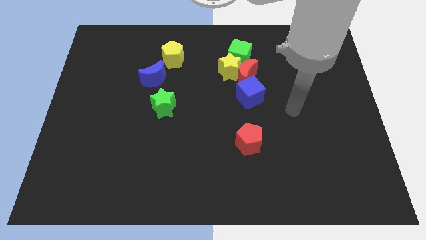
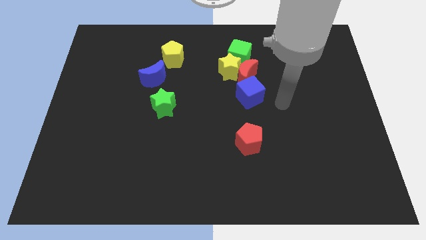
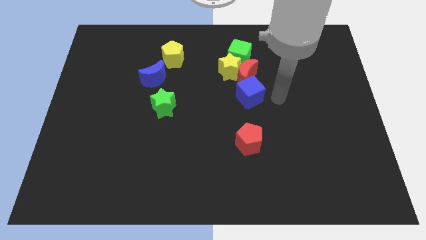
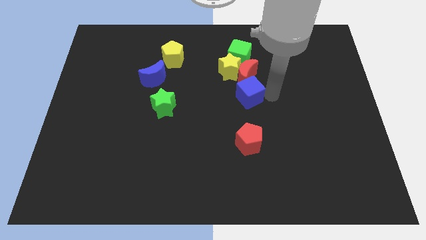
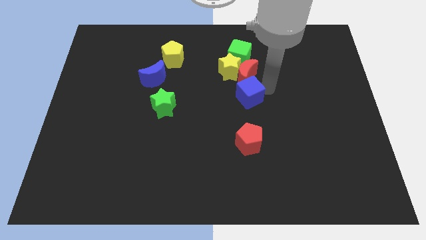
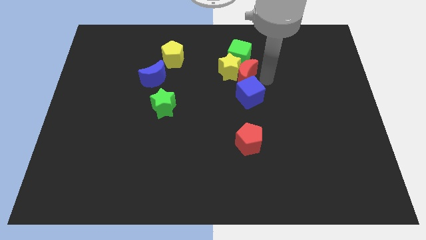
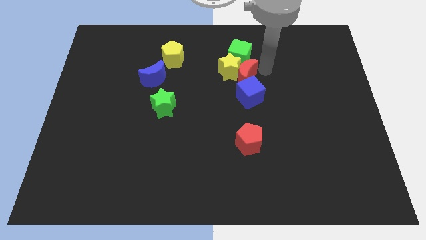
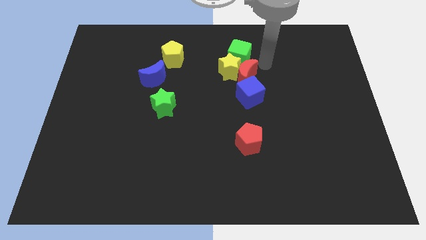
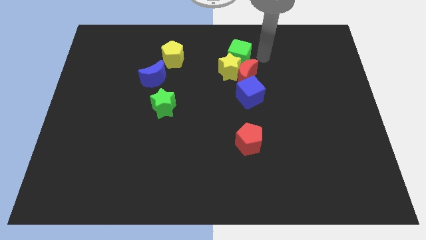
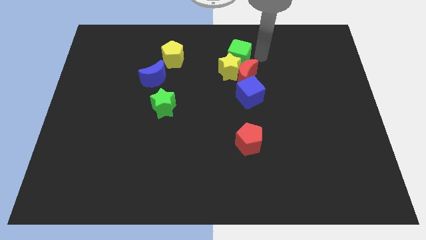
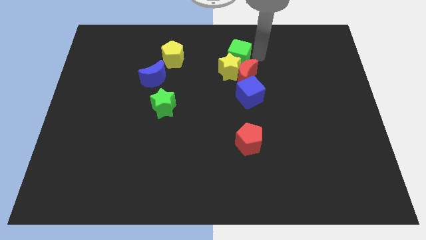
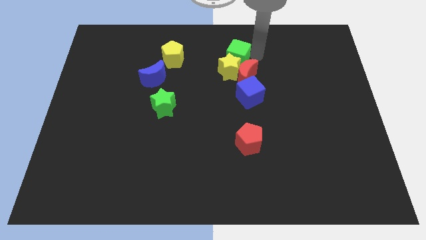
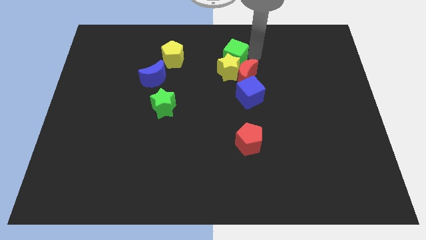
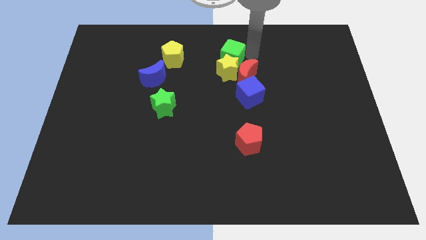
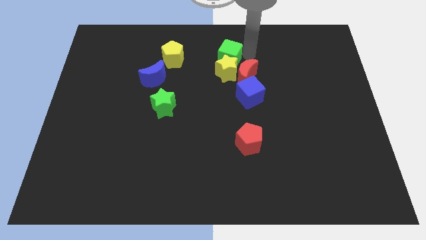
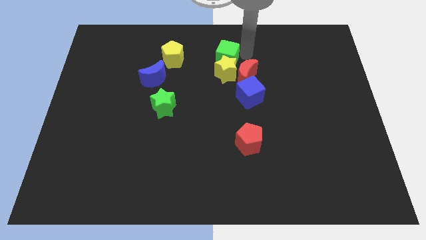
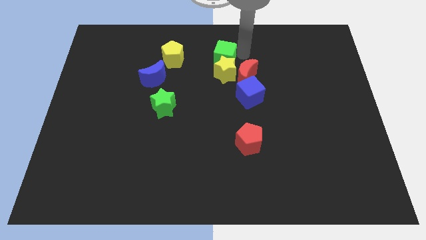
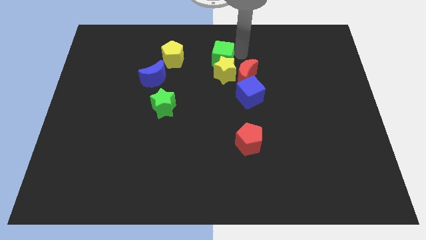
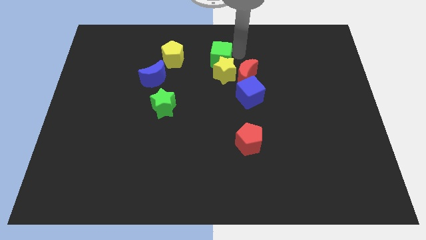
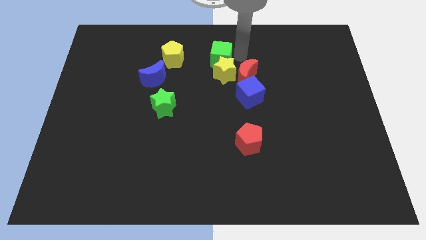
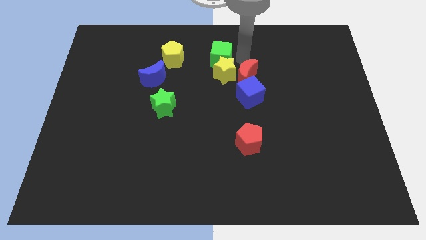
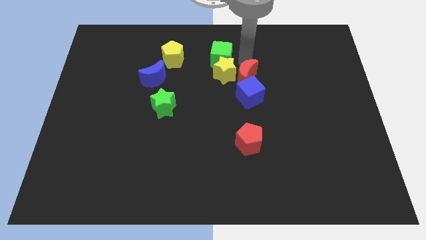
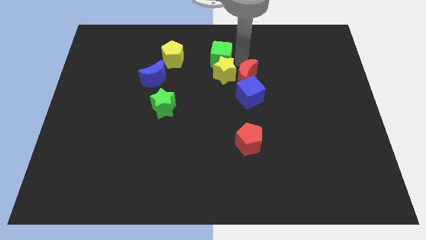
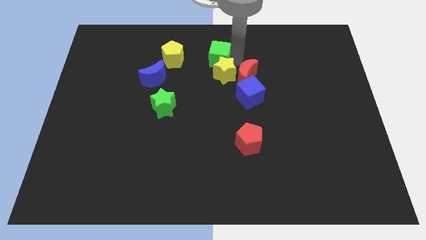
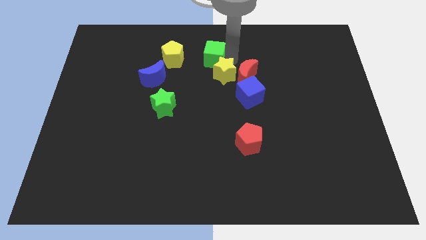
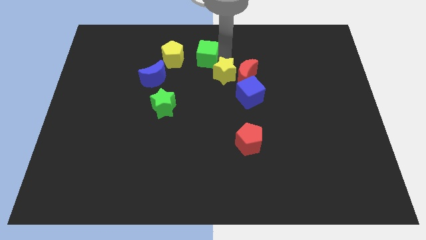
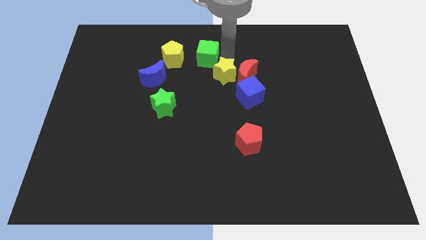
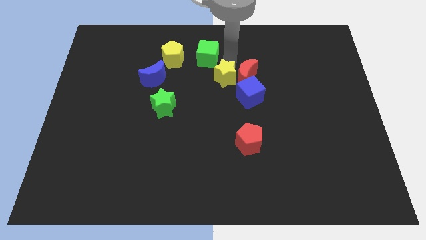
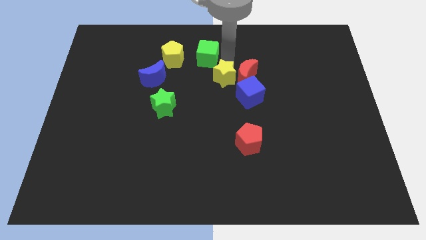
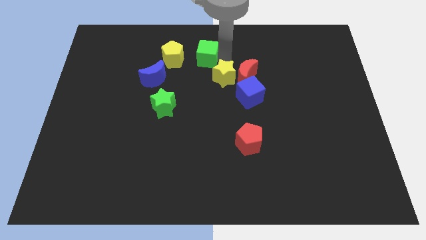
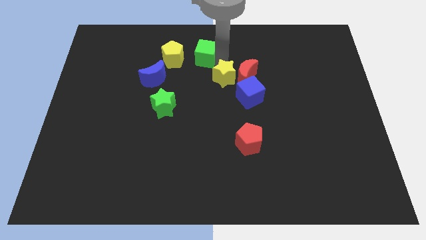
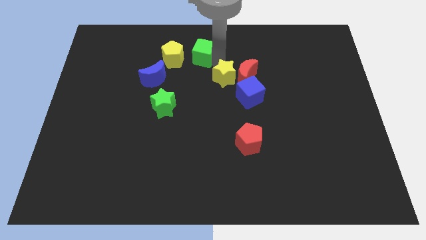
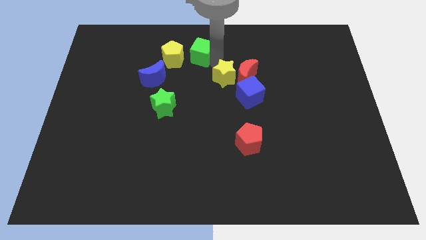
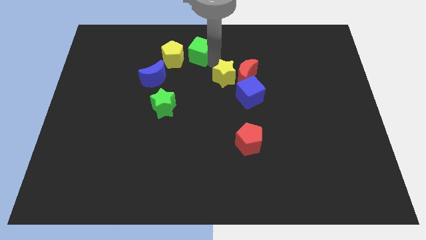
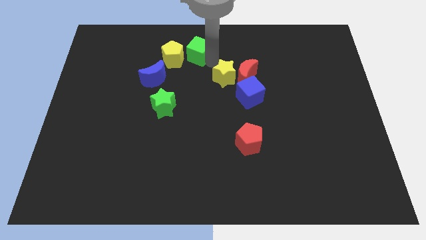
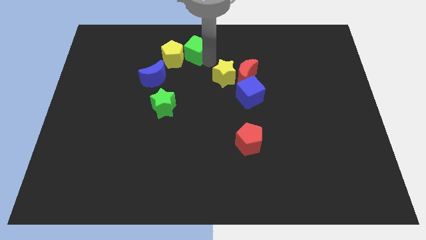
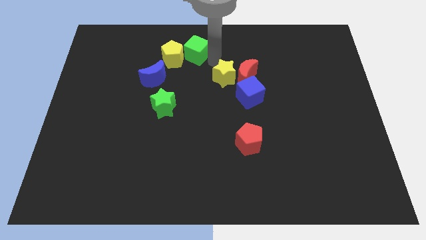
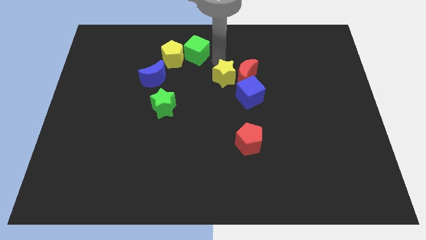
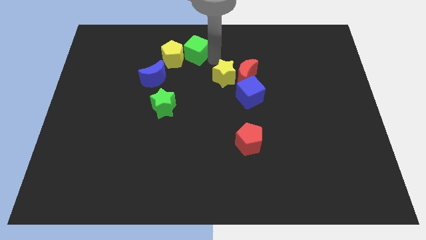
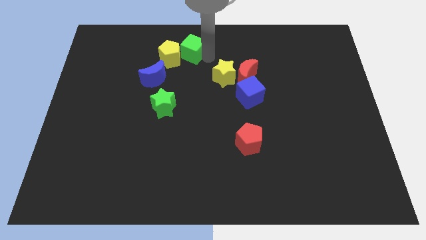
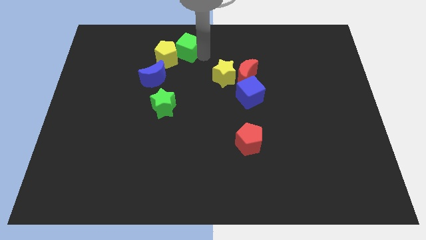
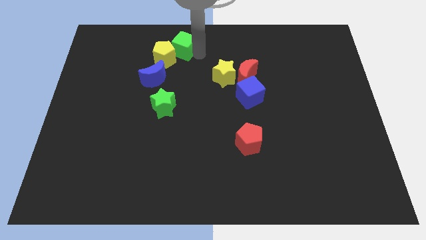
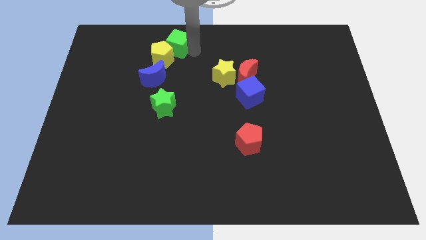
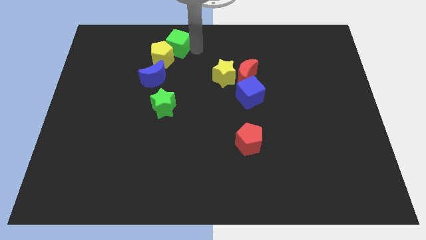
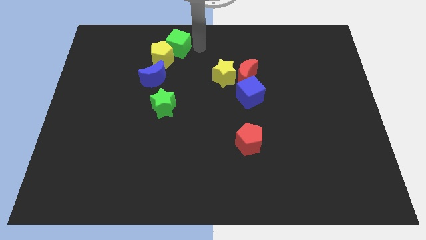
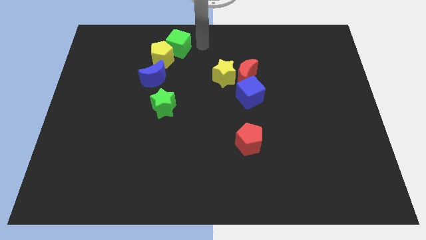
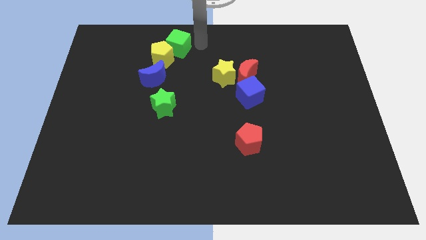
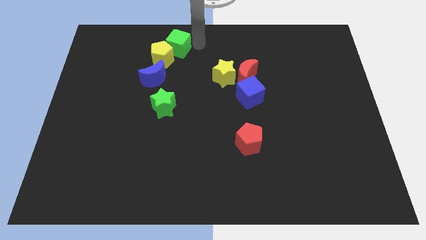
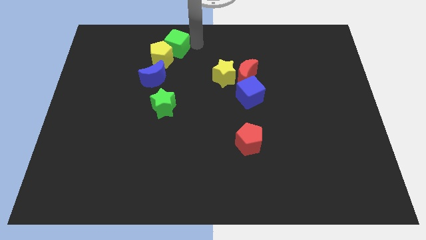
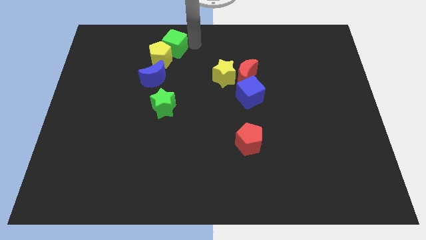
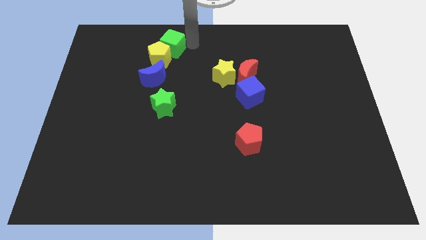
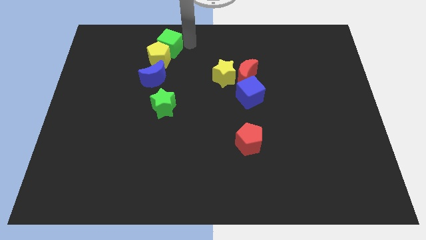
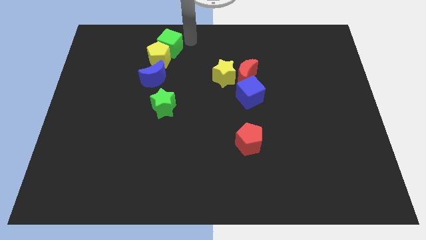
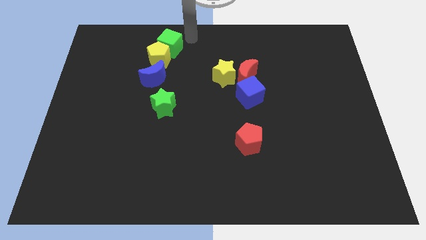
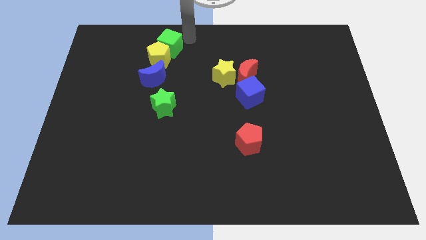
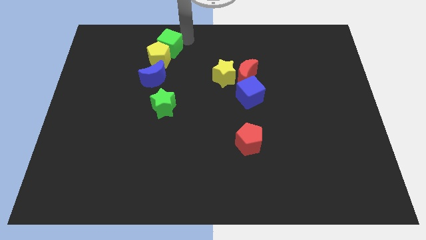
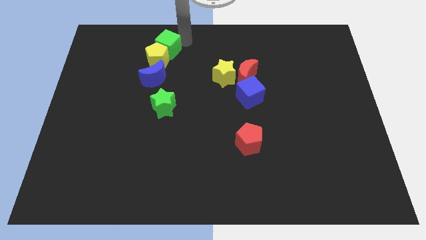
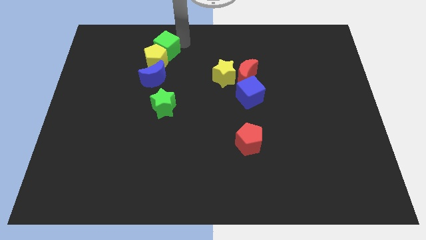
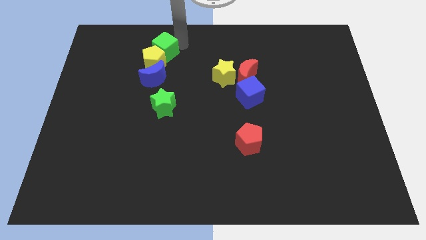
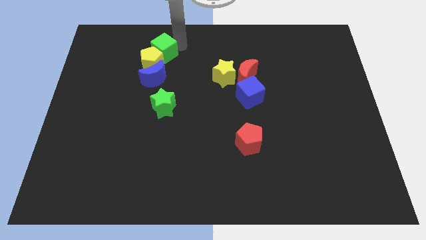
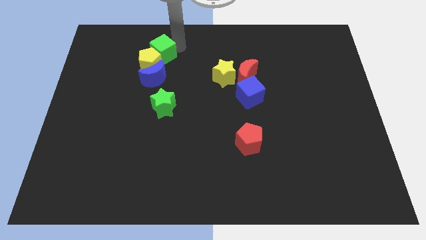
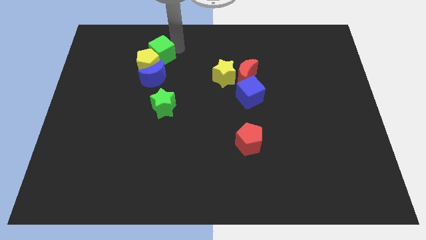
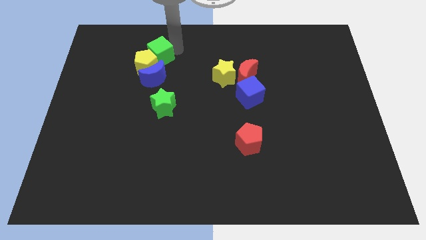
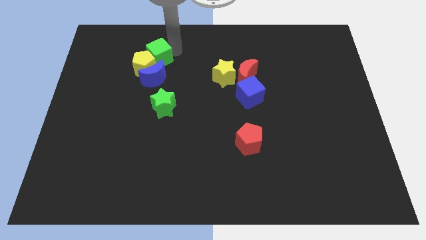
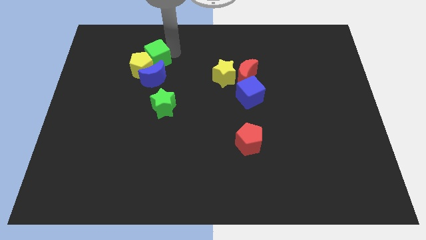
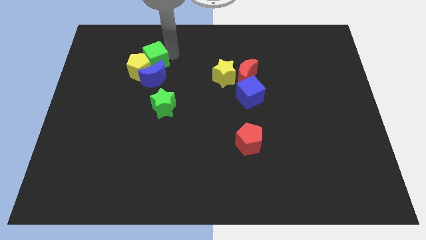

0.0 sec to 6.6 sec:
slide the green cube to the top left of the blue moon

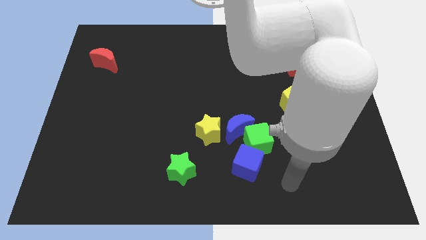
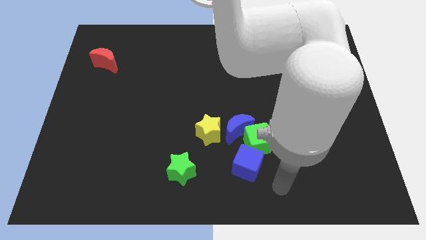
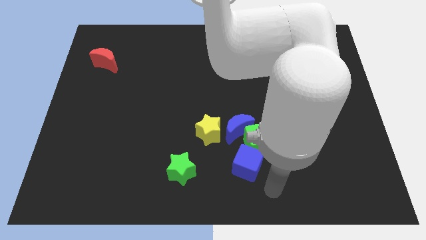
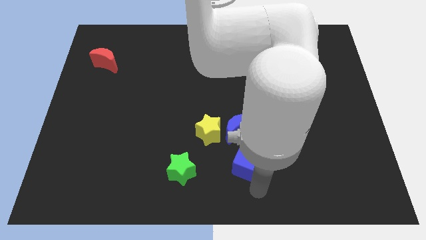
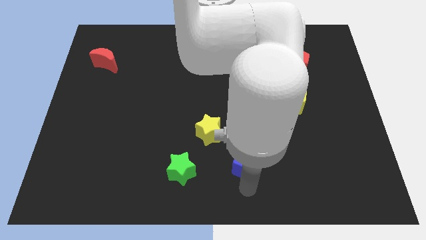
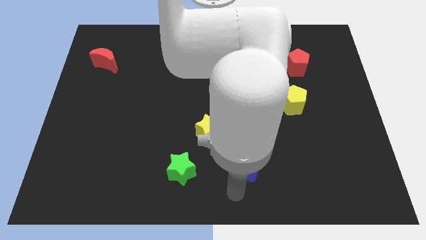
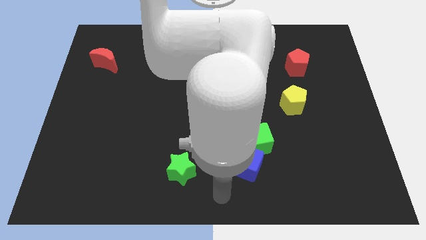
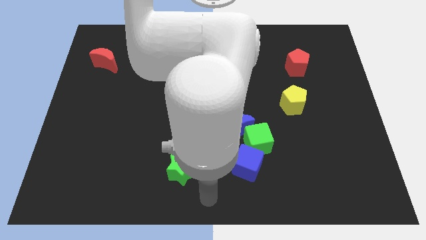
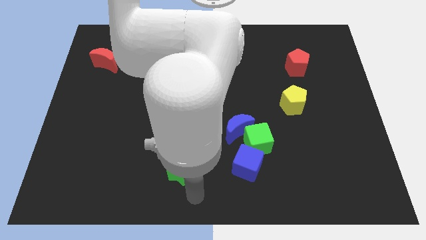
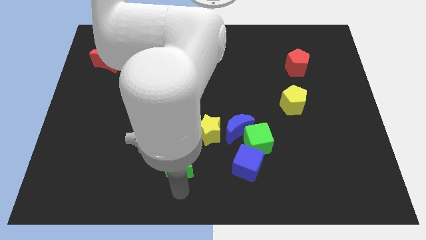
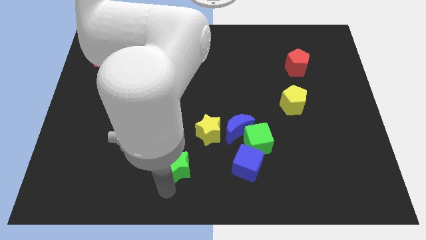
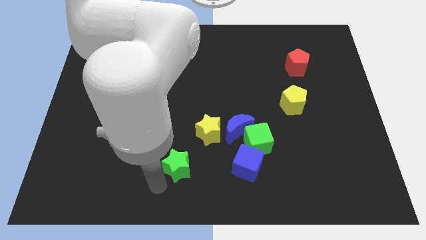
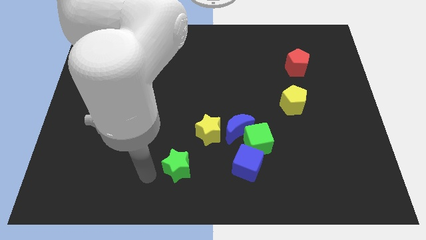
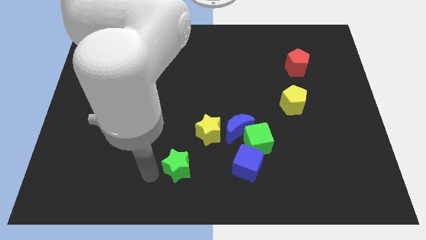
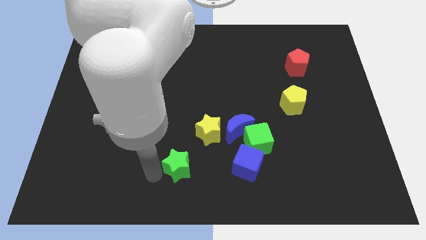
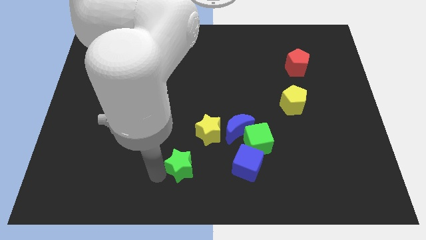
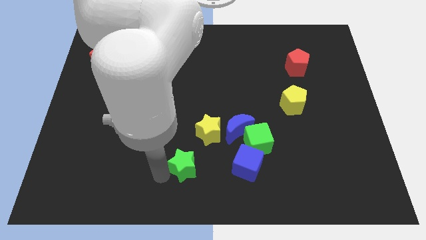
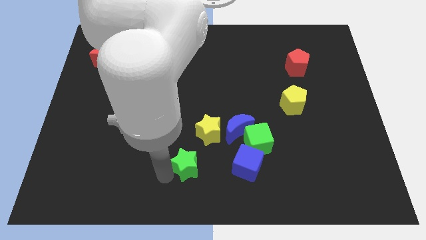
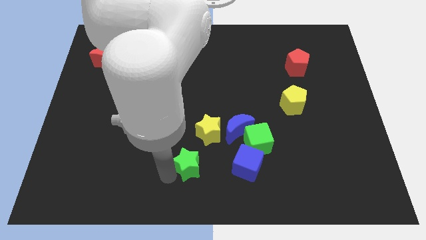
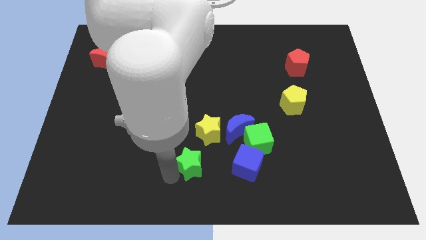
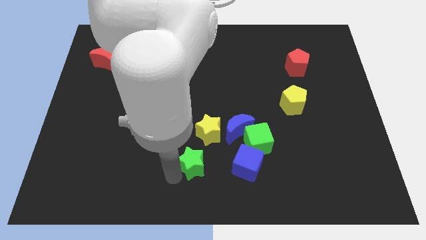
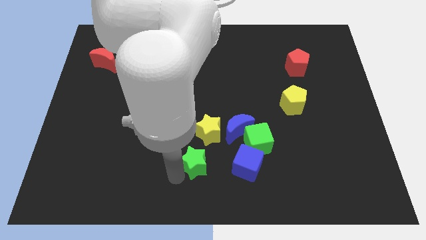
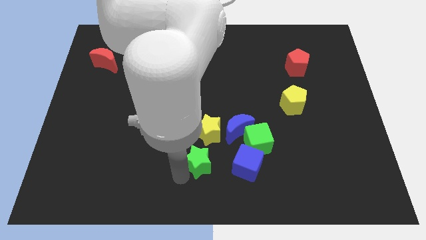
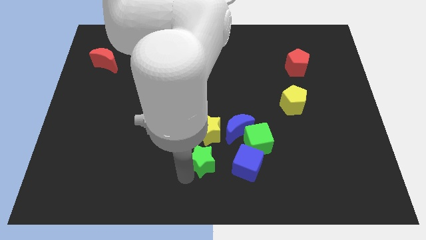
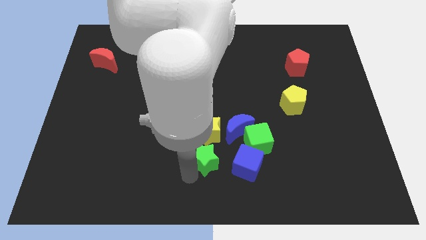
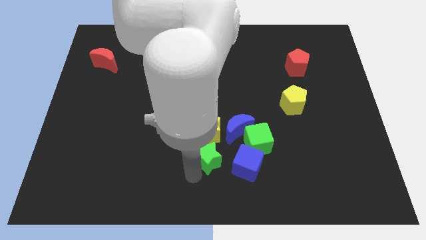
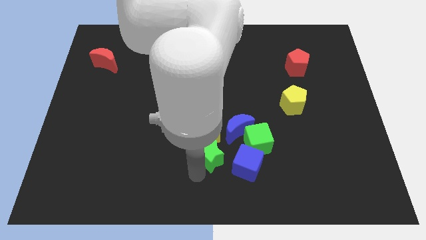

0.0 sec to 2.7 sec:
push the green star diagonally down and to the right of the yellow star
